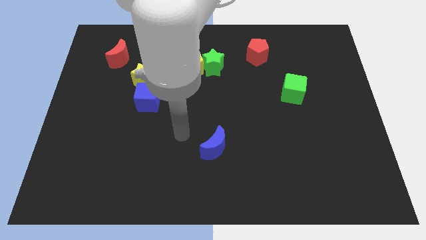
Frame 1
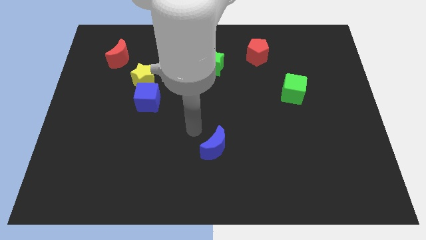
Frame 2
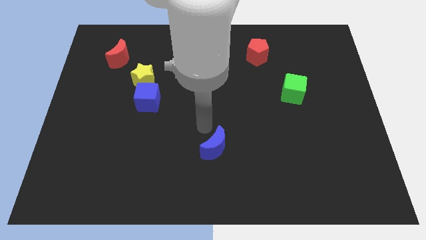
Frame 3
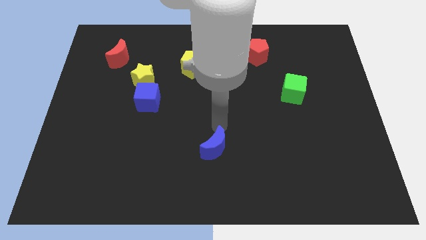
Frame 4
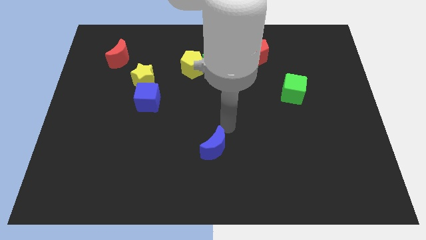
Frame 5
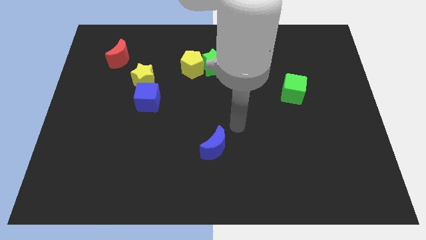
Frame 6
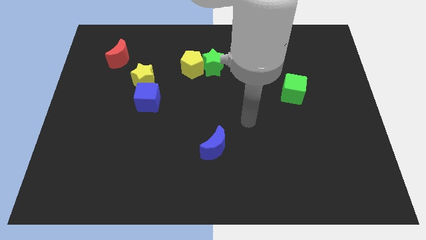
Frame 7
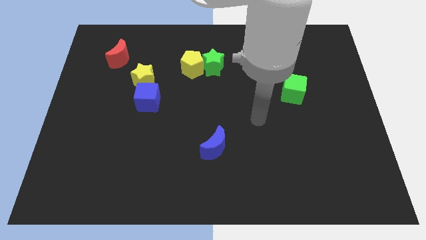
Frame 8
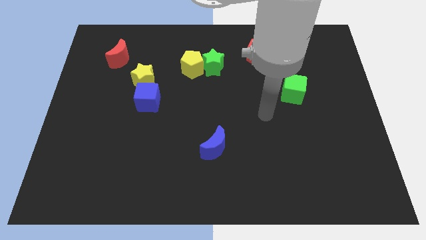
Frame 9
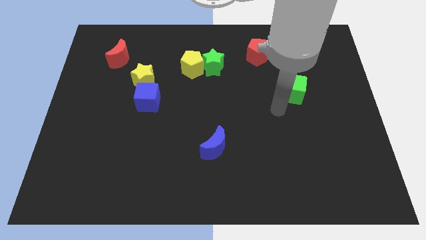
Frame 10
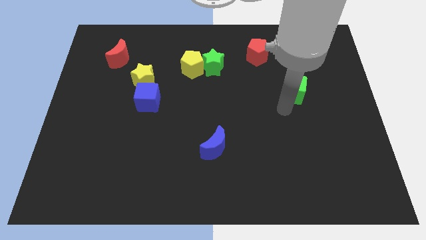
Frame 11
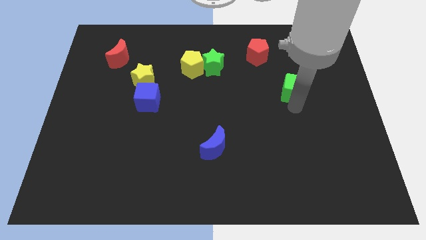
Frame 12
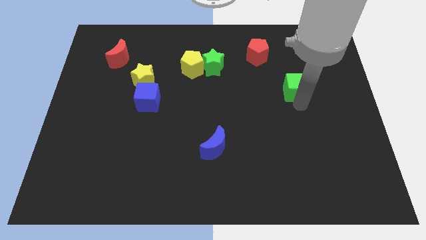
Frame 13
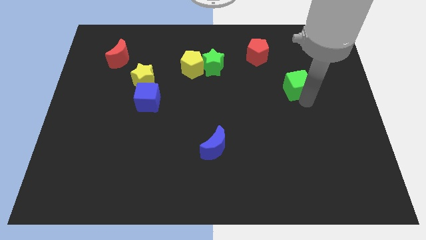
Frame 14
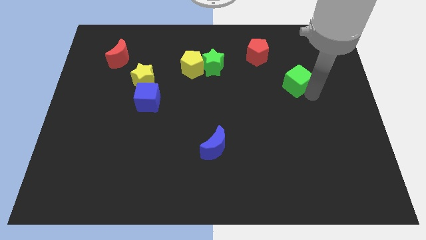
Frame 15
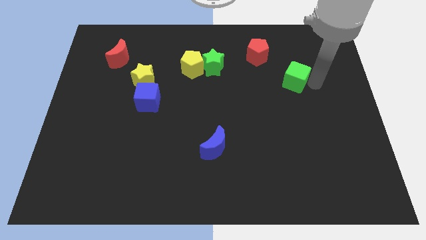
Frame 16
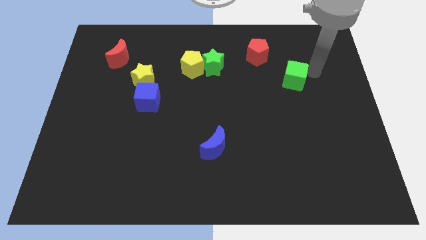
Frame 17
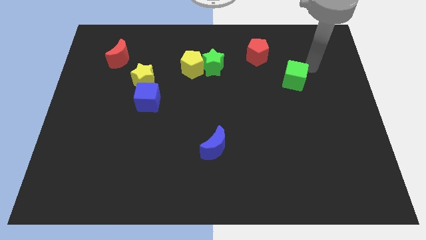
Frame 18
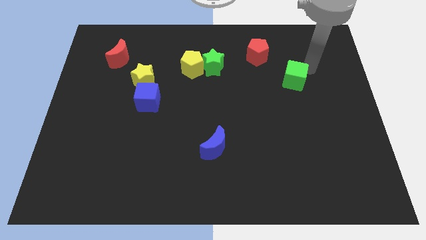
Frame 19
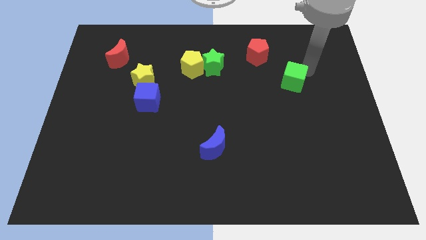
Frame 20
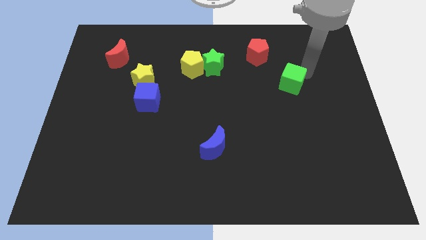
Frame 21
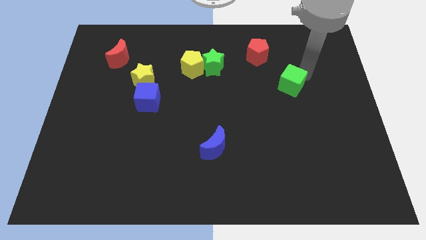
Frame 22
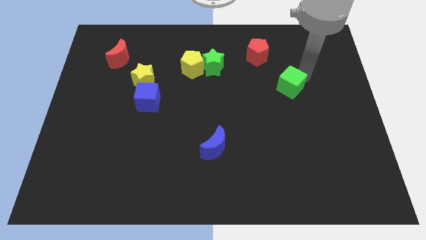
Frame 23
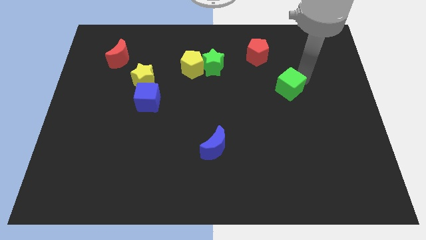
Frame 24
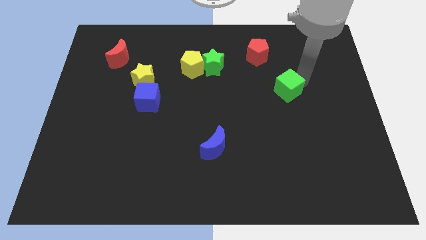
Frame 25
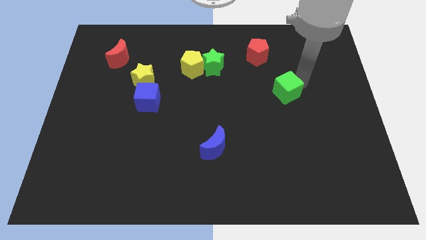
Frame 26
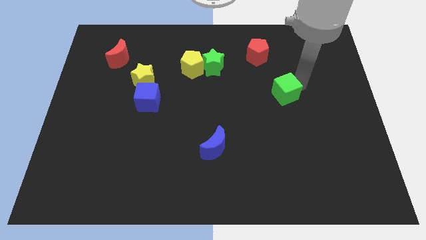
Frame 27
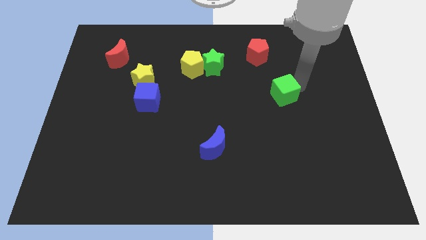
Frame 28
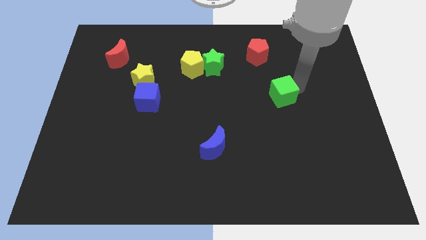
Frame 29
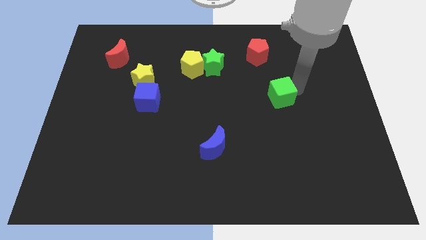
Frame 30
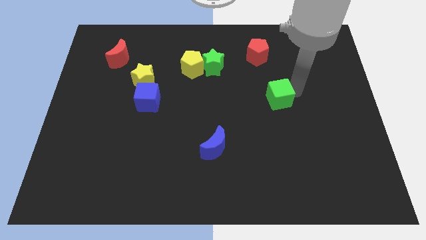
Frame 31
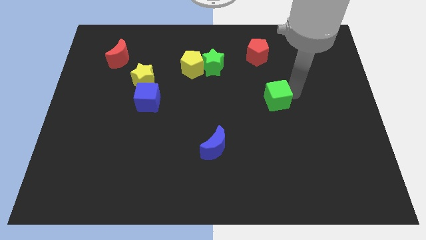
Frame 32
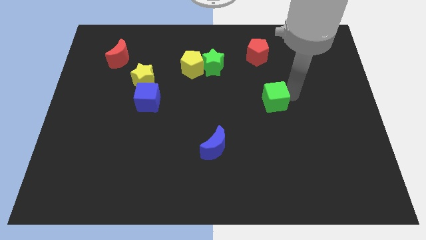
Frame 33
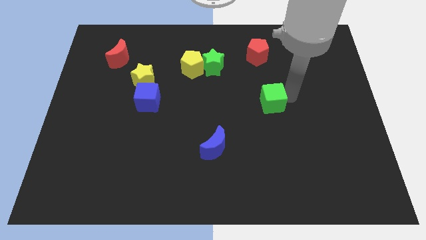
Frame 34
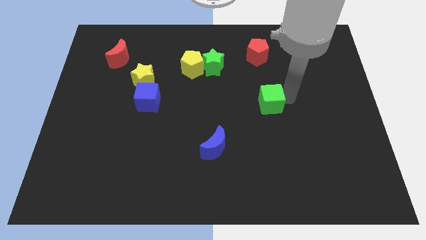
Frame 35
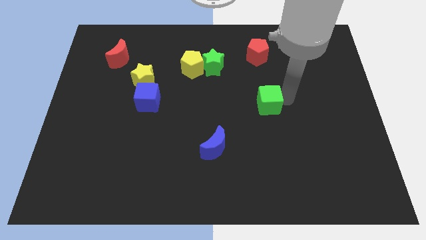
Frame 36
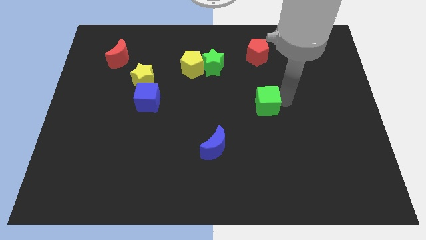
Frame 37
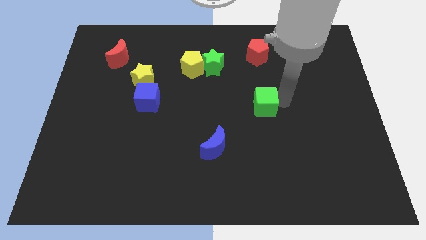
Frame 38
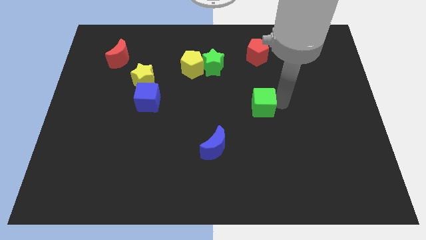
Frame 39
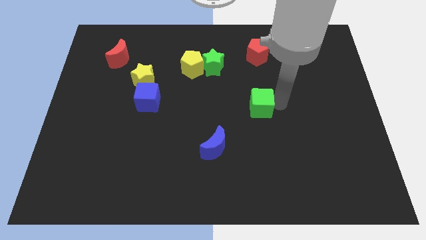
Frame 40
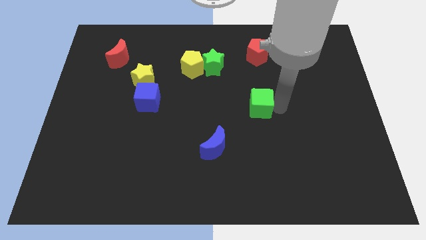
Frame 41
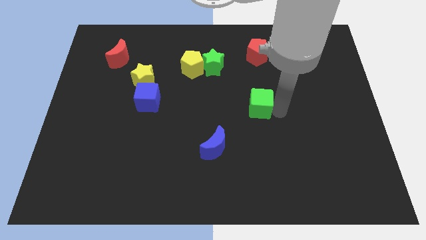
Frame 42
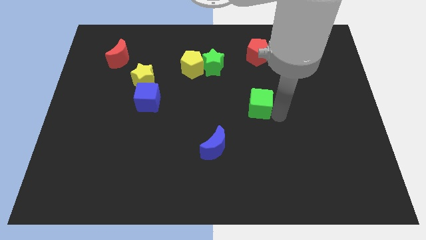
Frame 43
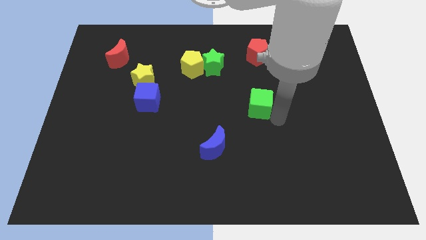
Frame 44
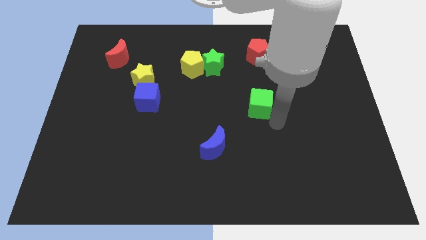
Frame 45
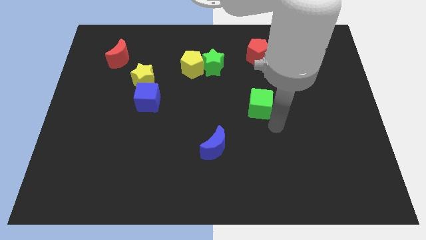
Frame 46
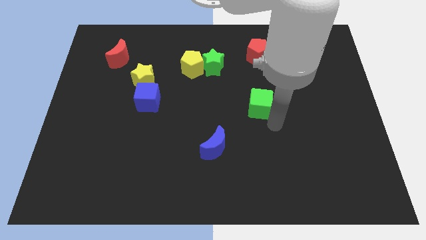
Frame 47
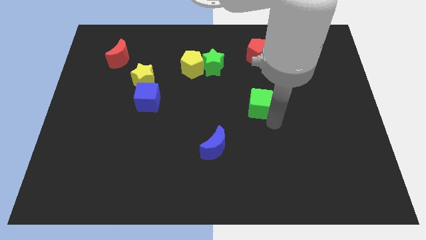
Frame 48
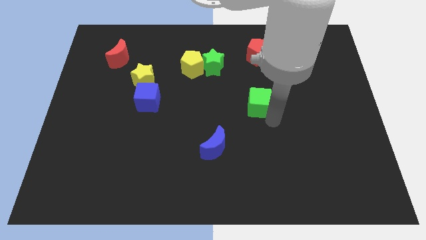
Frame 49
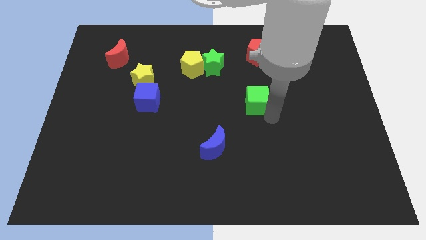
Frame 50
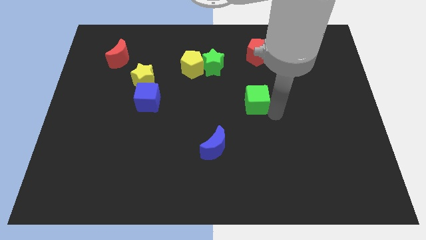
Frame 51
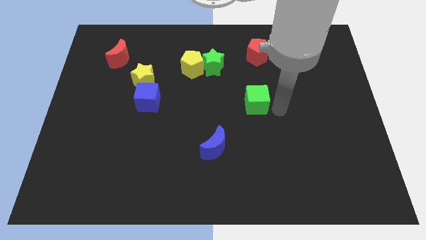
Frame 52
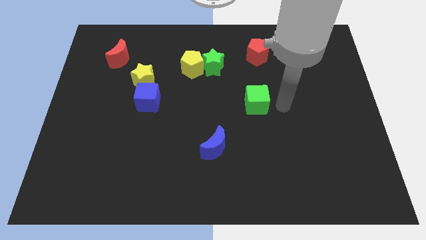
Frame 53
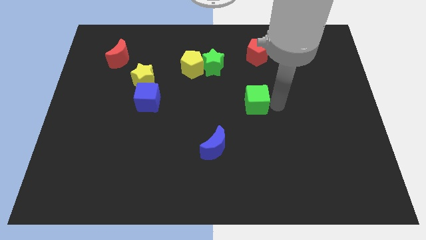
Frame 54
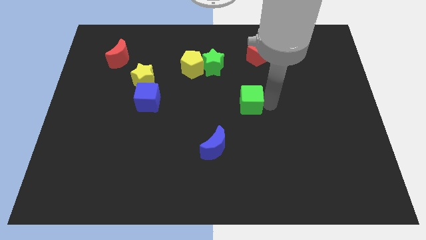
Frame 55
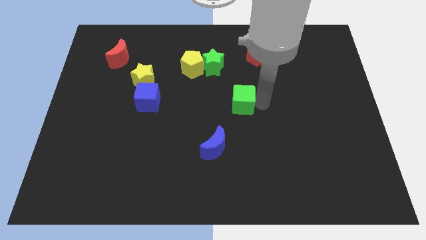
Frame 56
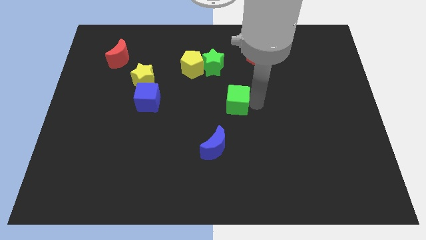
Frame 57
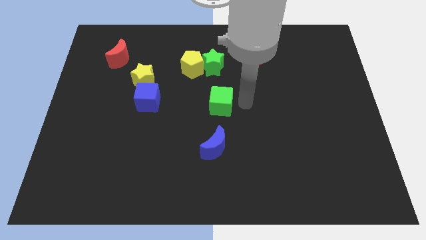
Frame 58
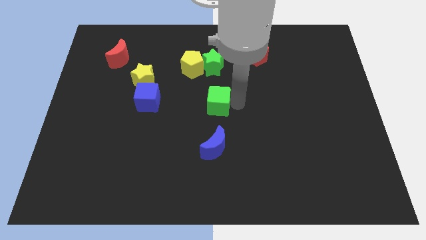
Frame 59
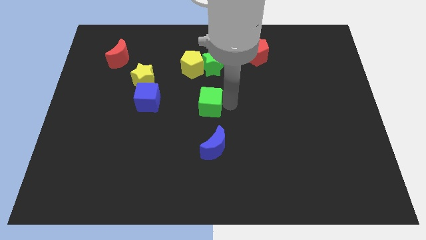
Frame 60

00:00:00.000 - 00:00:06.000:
push the green cube just right of the blue cube

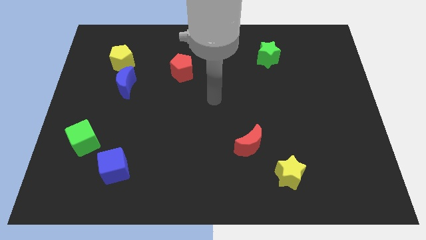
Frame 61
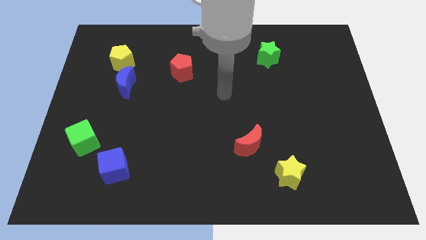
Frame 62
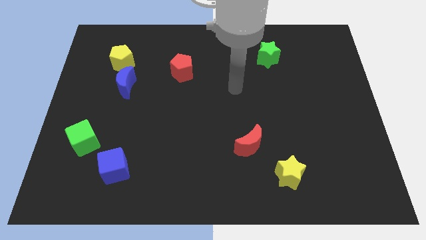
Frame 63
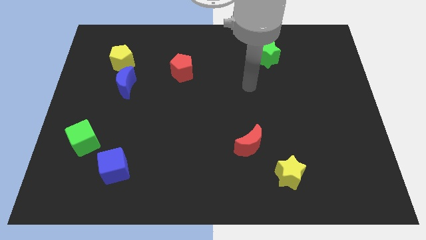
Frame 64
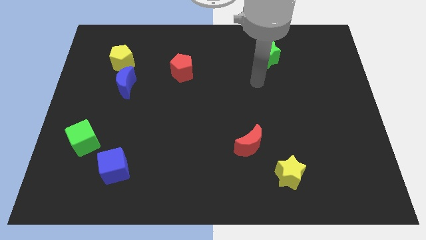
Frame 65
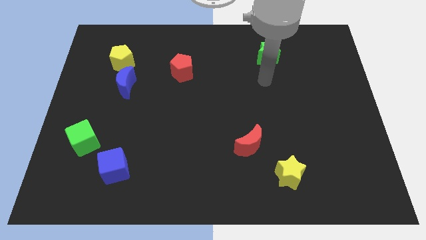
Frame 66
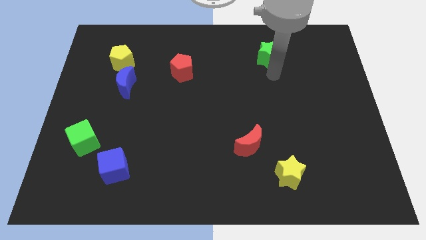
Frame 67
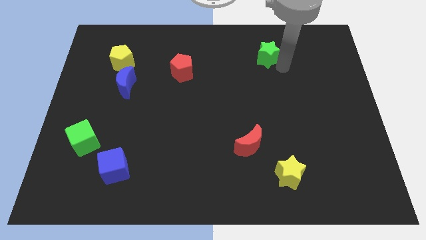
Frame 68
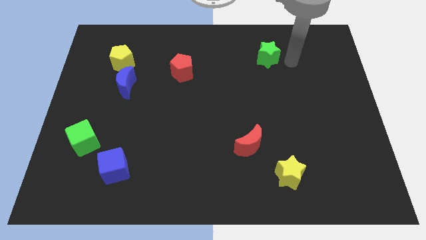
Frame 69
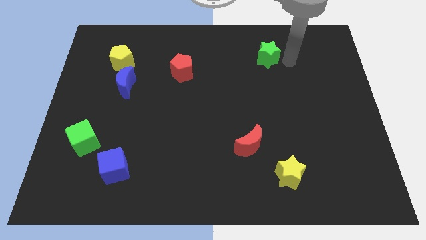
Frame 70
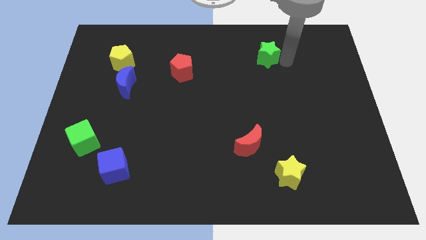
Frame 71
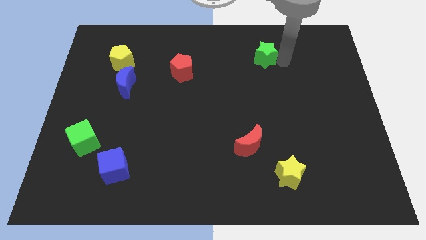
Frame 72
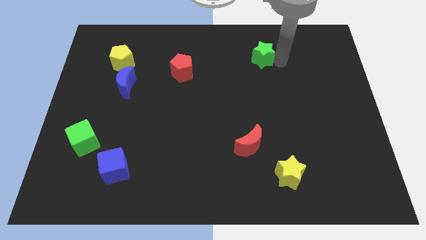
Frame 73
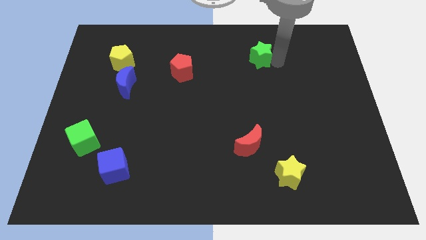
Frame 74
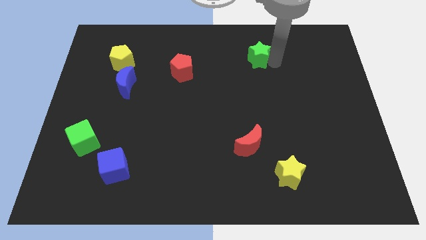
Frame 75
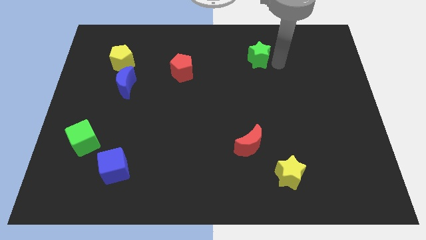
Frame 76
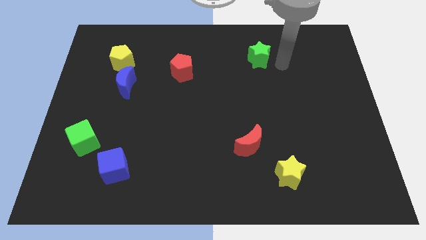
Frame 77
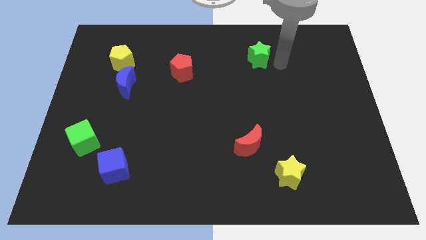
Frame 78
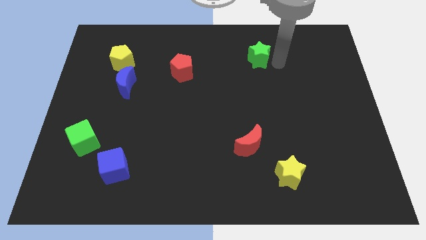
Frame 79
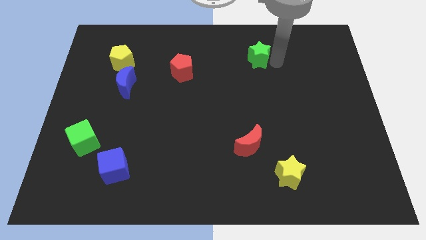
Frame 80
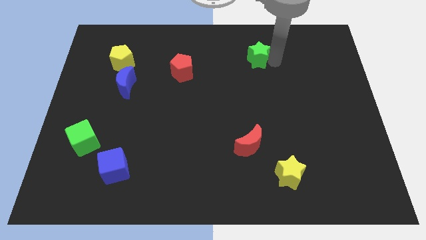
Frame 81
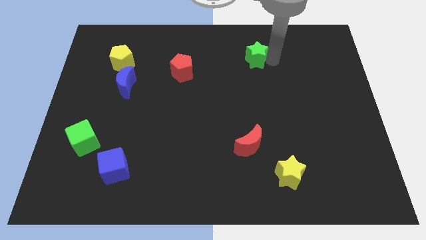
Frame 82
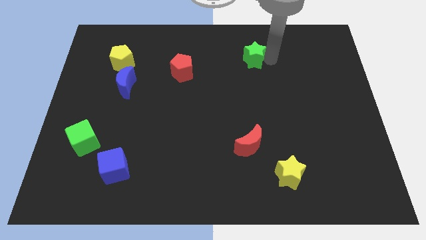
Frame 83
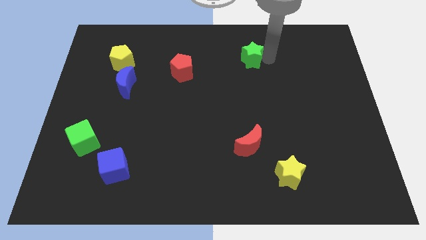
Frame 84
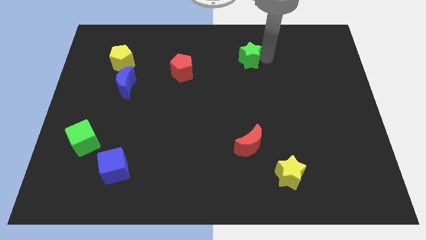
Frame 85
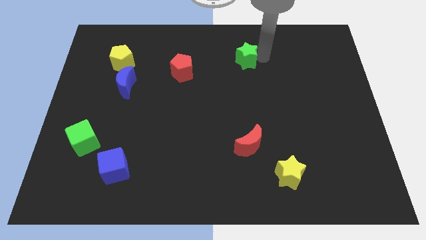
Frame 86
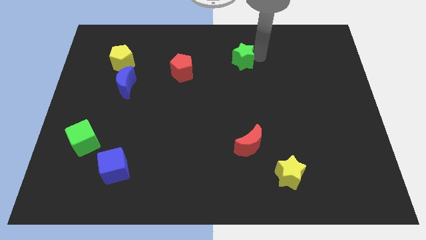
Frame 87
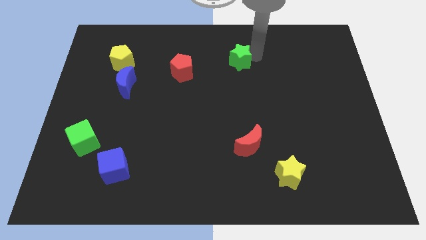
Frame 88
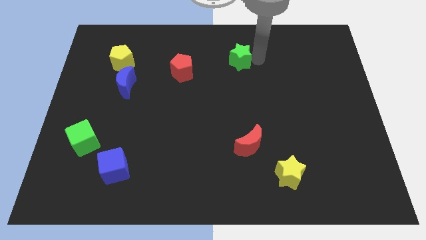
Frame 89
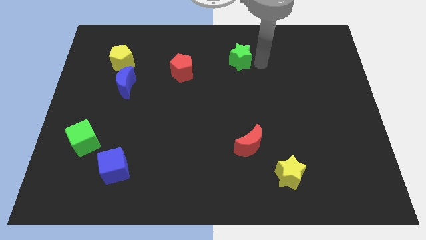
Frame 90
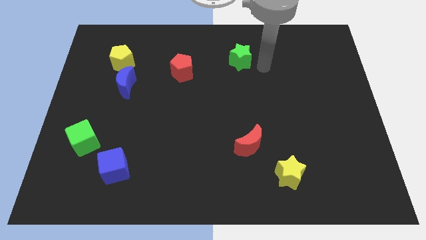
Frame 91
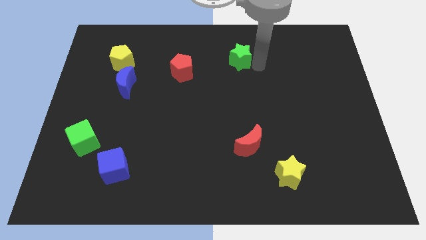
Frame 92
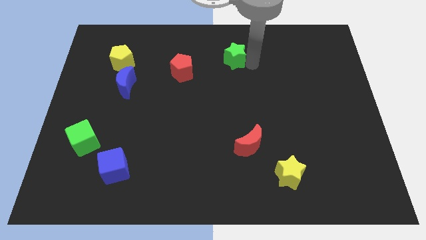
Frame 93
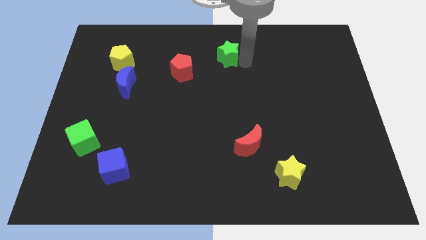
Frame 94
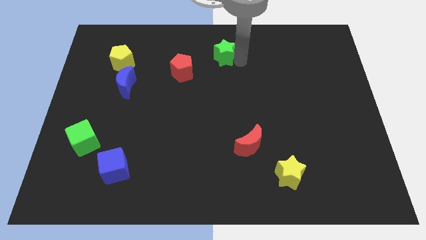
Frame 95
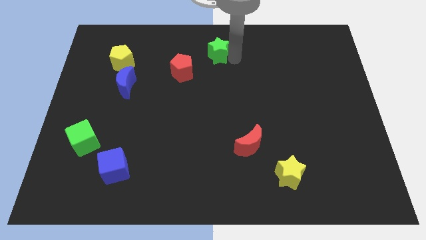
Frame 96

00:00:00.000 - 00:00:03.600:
move the green star to the top right side of the red pentagon
